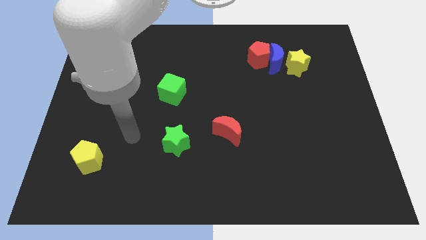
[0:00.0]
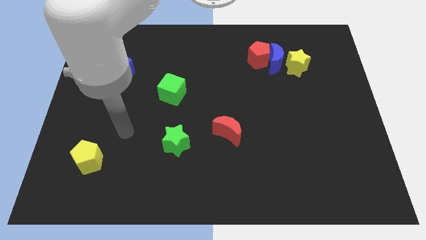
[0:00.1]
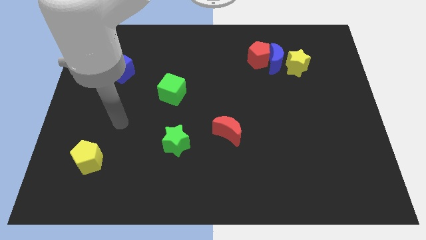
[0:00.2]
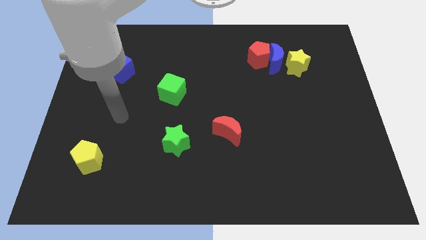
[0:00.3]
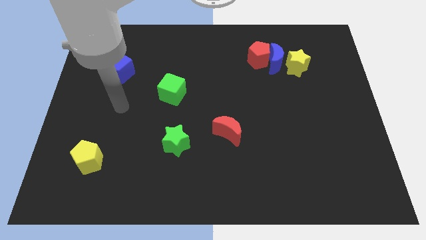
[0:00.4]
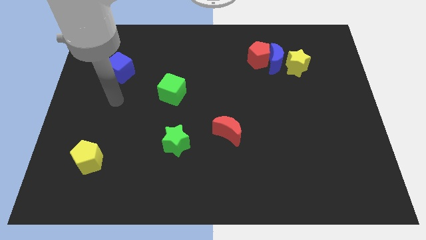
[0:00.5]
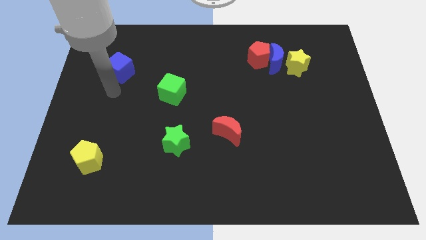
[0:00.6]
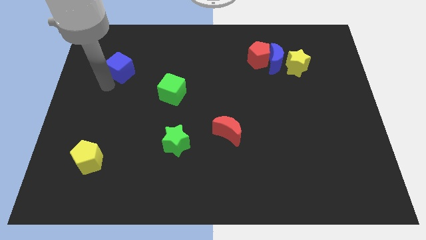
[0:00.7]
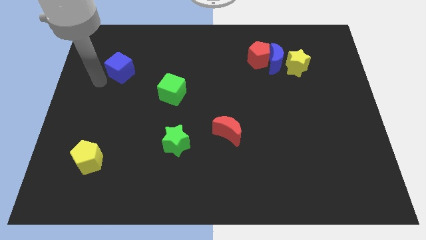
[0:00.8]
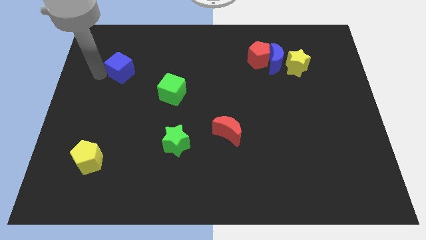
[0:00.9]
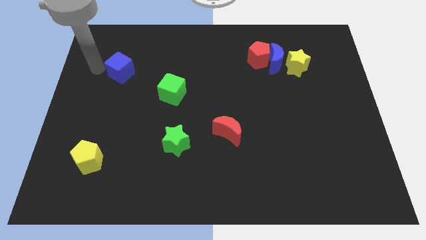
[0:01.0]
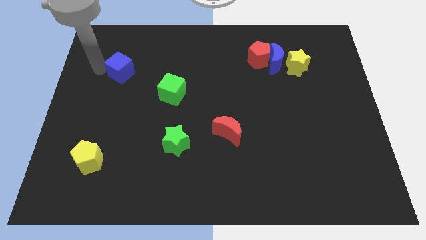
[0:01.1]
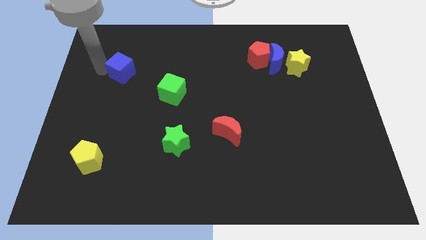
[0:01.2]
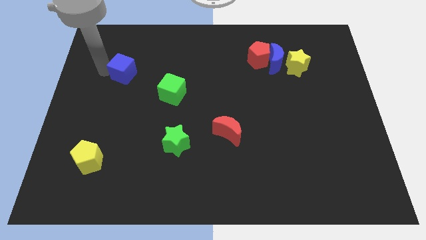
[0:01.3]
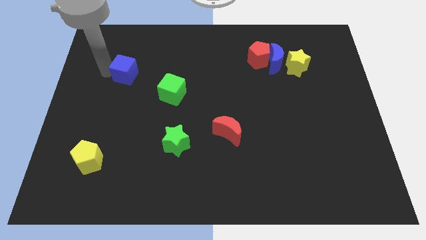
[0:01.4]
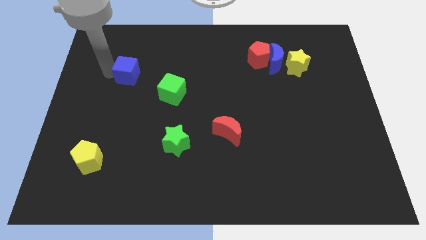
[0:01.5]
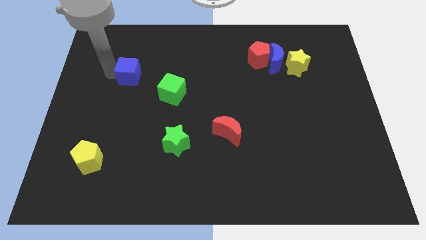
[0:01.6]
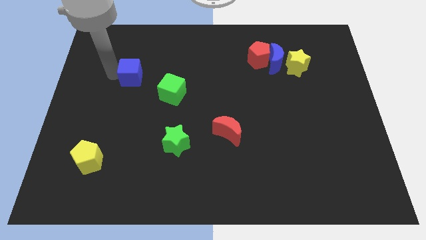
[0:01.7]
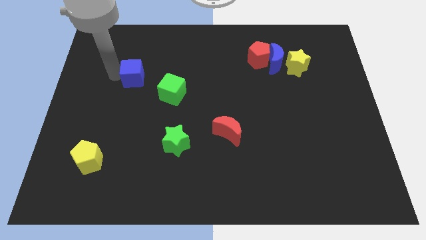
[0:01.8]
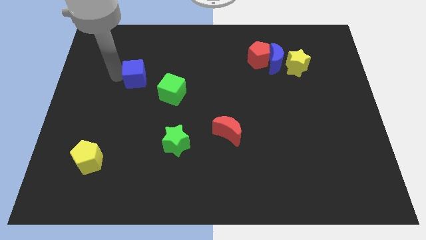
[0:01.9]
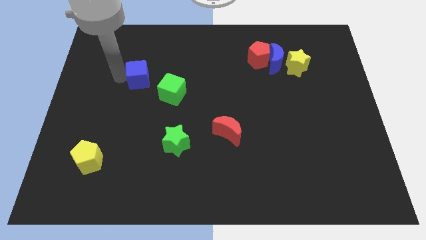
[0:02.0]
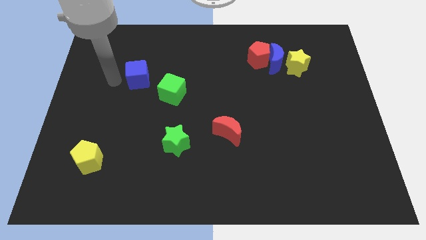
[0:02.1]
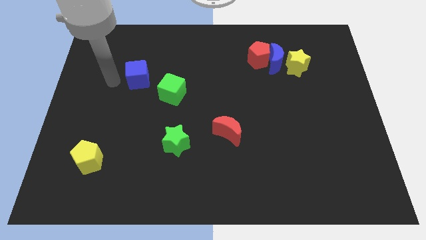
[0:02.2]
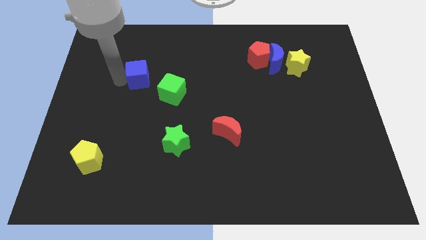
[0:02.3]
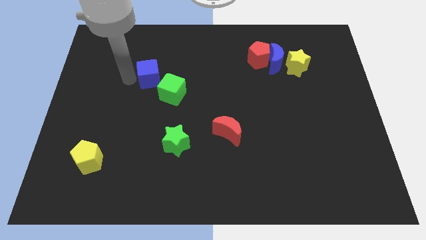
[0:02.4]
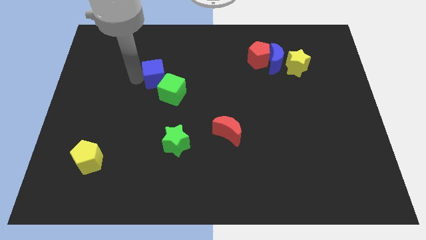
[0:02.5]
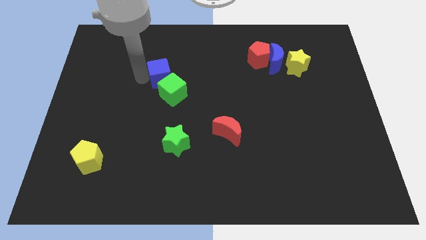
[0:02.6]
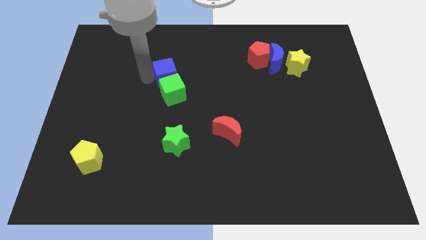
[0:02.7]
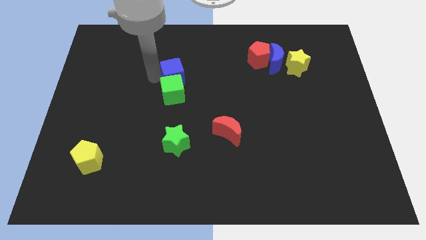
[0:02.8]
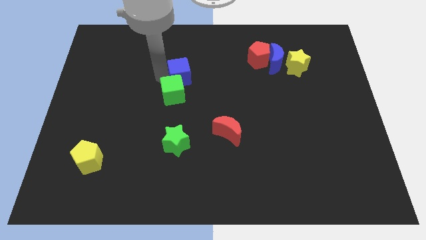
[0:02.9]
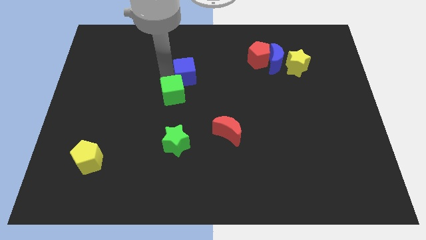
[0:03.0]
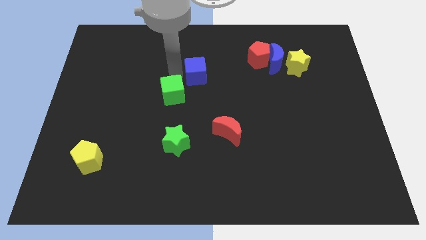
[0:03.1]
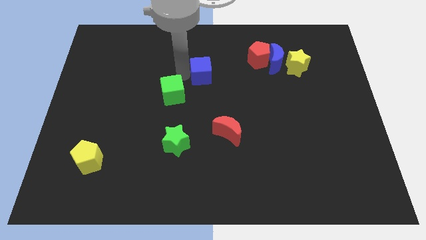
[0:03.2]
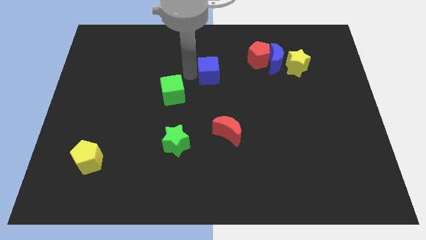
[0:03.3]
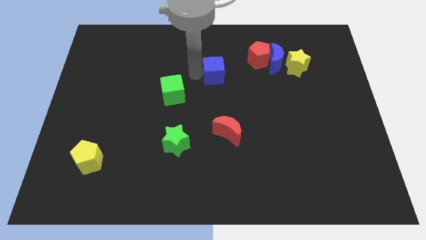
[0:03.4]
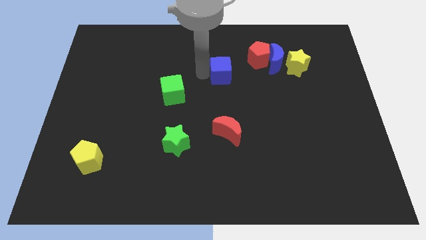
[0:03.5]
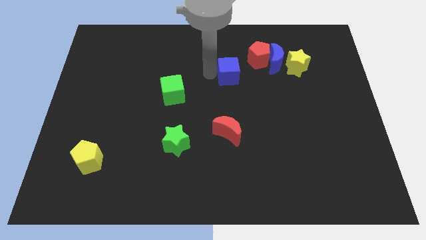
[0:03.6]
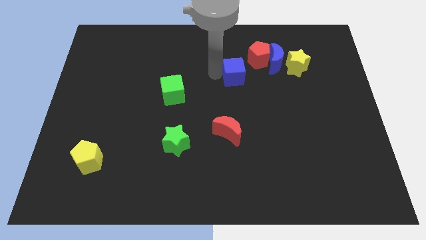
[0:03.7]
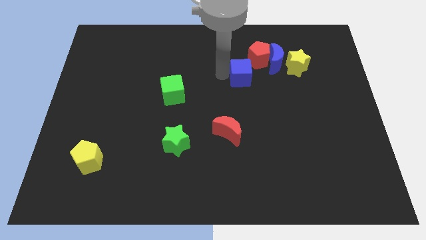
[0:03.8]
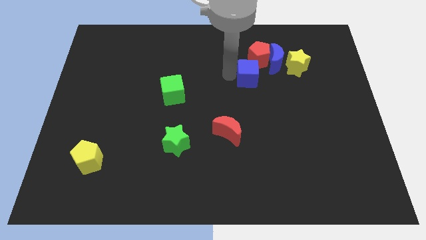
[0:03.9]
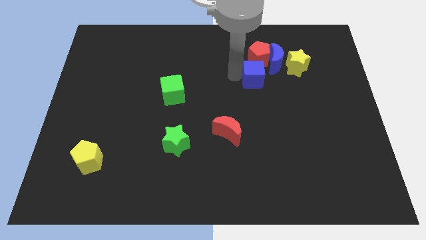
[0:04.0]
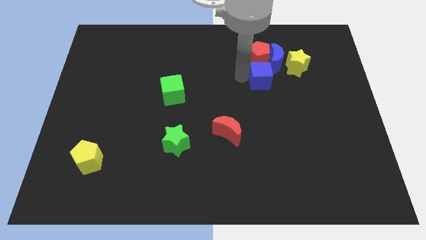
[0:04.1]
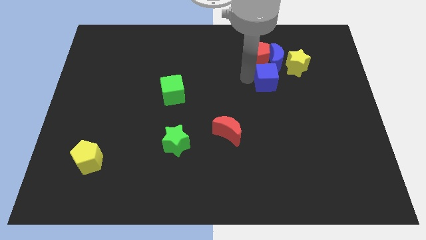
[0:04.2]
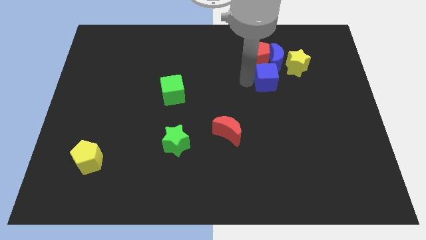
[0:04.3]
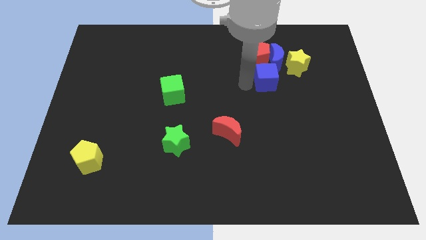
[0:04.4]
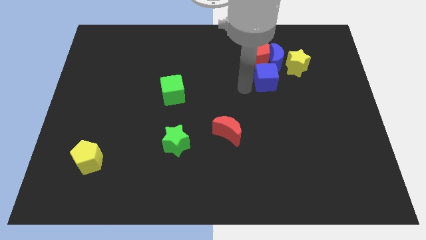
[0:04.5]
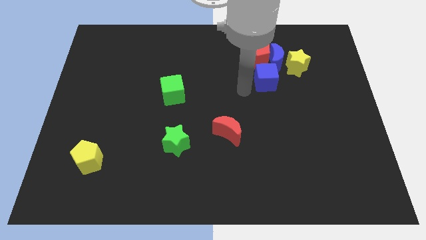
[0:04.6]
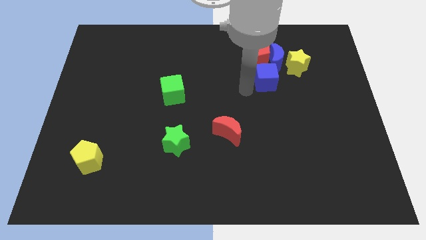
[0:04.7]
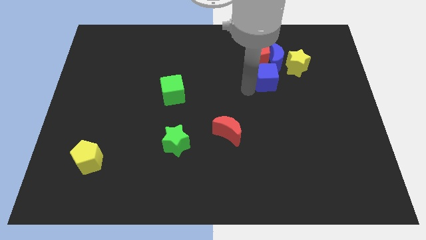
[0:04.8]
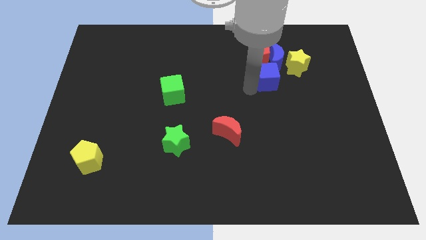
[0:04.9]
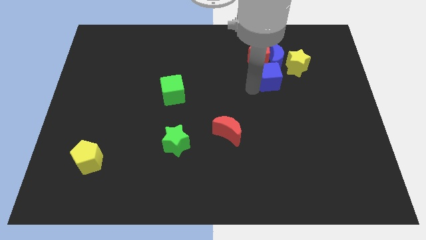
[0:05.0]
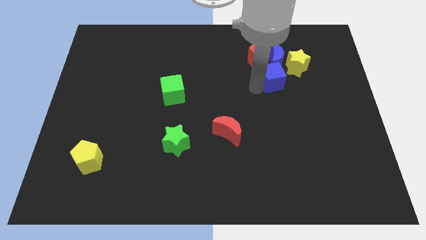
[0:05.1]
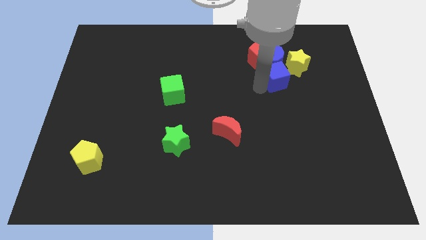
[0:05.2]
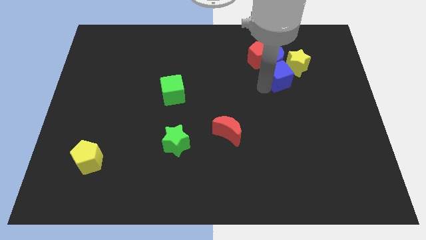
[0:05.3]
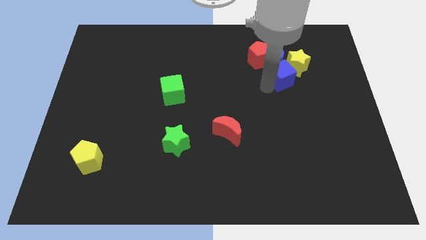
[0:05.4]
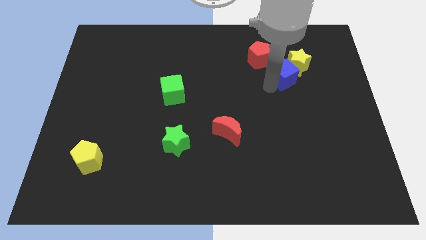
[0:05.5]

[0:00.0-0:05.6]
slide the blue cube towards the yellow star

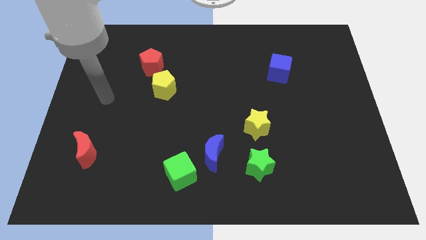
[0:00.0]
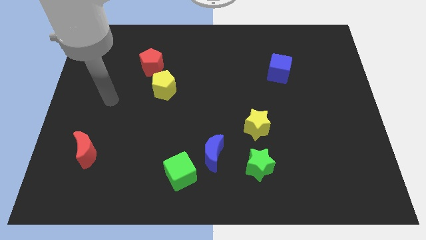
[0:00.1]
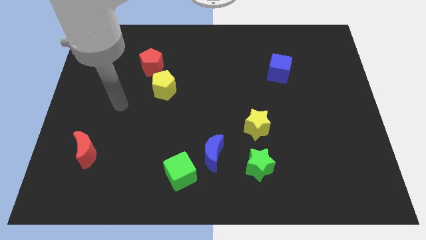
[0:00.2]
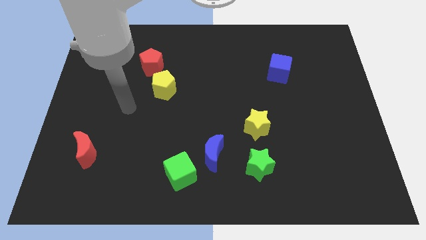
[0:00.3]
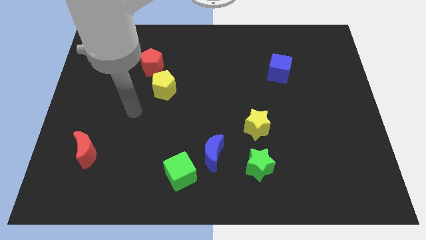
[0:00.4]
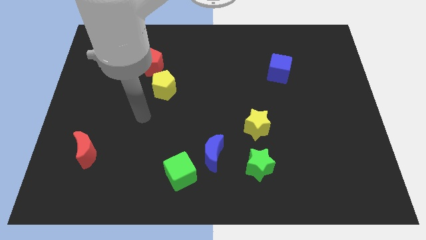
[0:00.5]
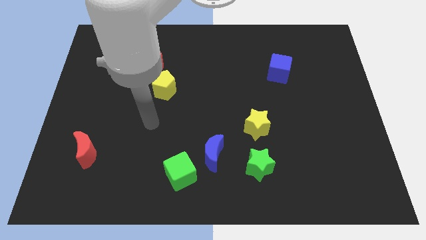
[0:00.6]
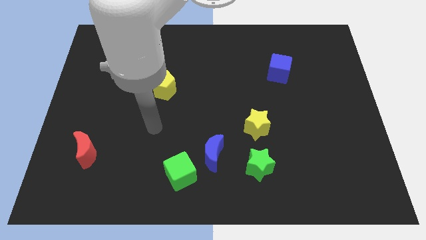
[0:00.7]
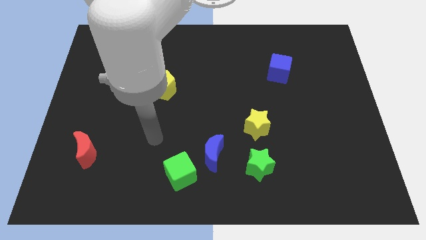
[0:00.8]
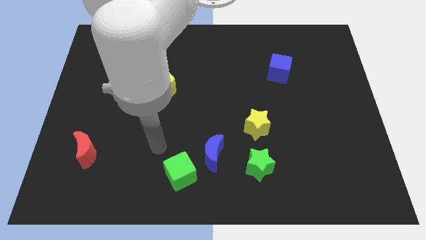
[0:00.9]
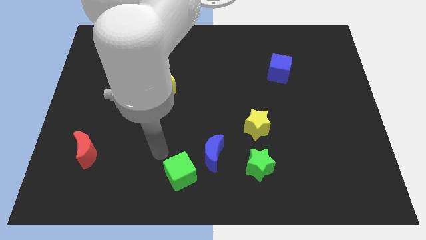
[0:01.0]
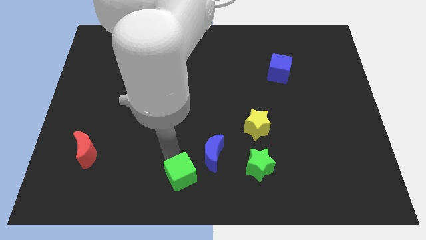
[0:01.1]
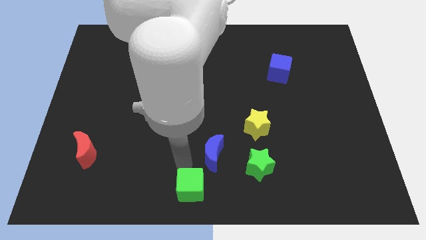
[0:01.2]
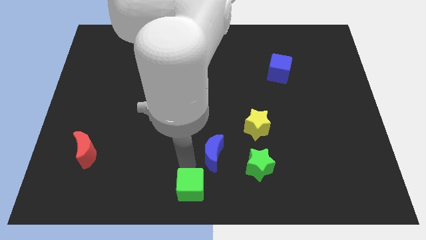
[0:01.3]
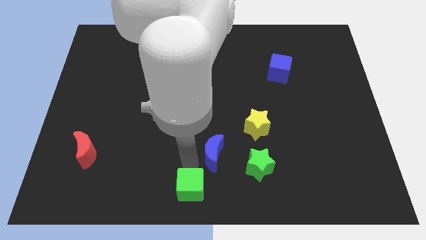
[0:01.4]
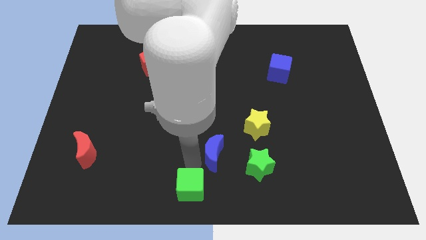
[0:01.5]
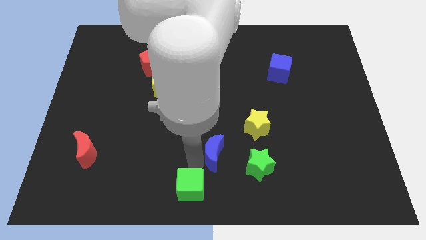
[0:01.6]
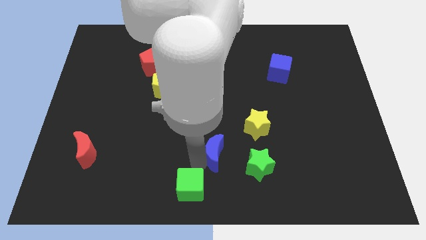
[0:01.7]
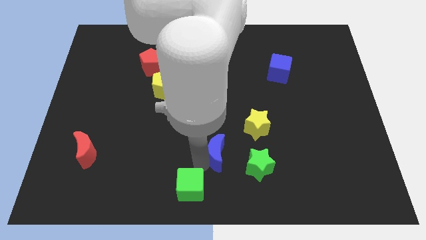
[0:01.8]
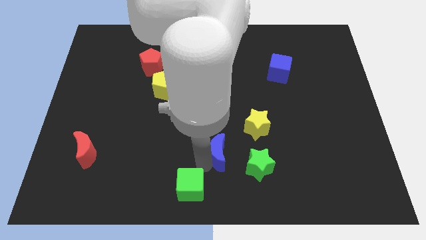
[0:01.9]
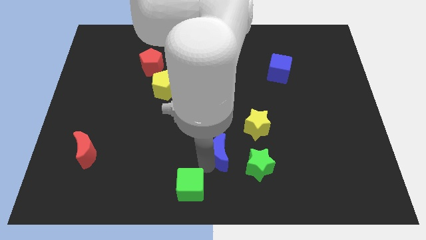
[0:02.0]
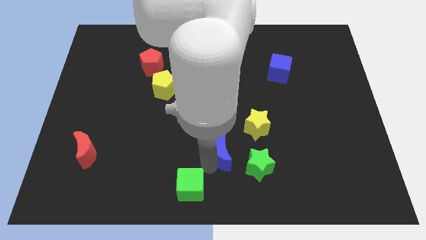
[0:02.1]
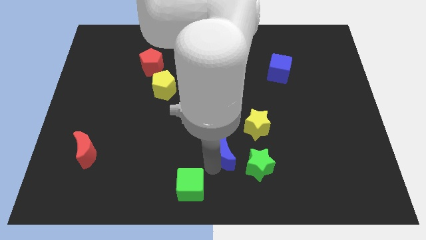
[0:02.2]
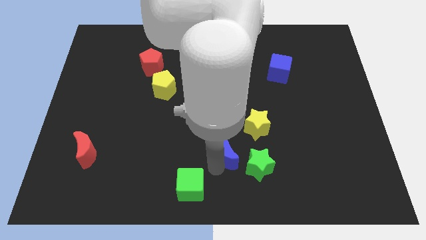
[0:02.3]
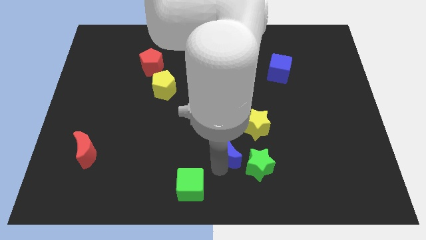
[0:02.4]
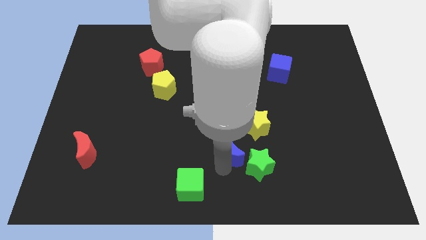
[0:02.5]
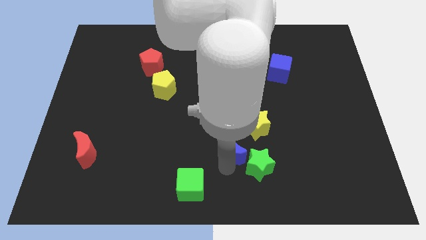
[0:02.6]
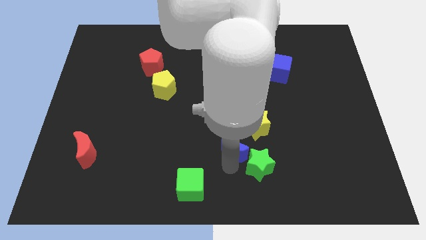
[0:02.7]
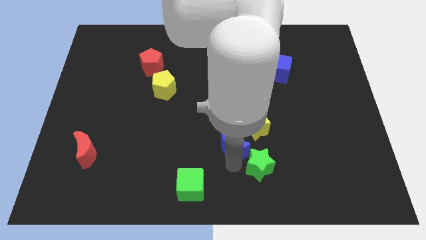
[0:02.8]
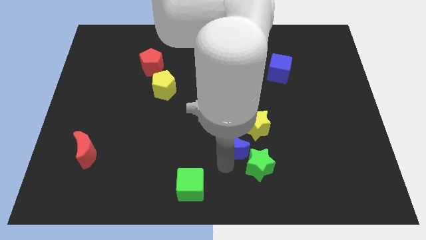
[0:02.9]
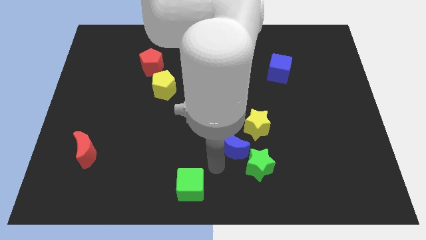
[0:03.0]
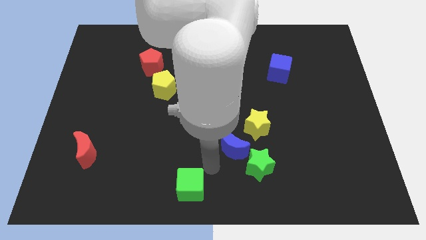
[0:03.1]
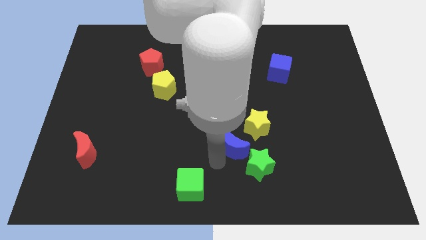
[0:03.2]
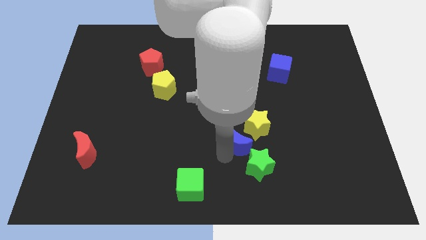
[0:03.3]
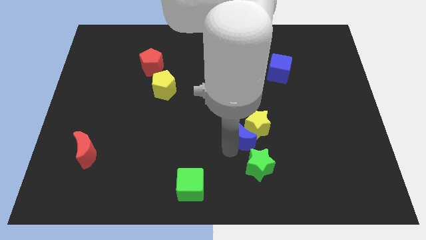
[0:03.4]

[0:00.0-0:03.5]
put the blue moon close to the yellow star
